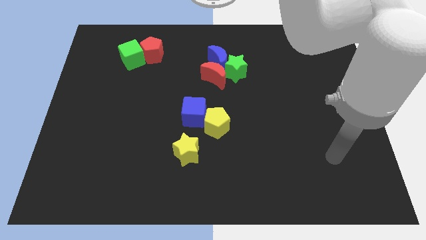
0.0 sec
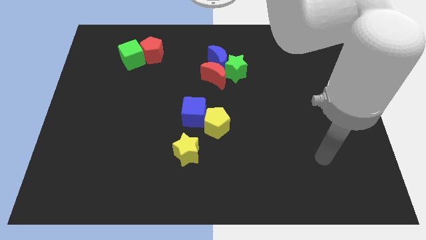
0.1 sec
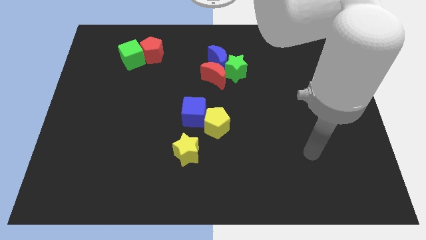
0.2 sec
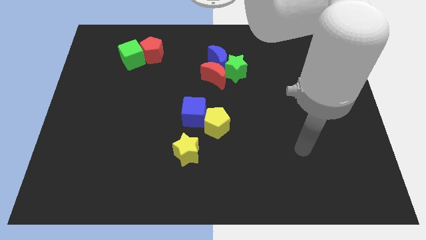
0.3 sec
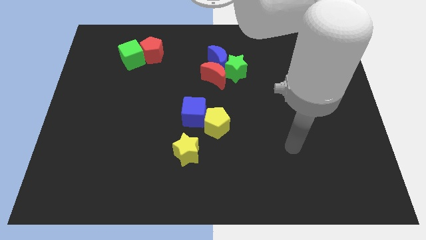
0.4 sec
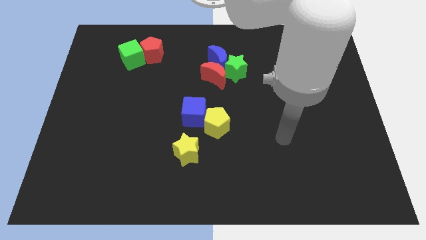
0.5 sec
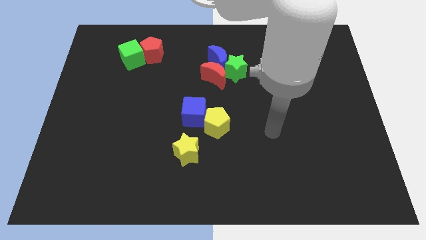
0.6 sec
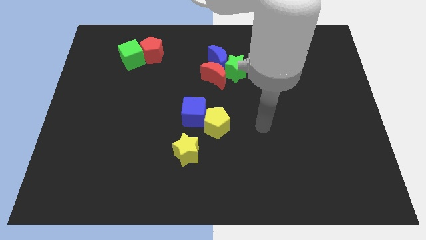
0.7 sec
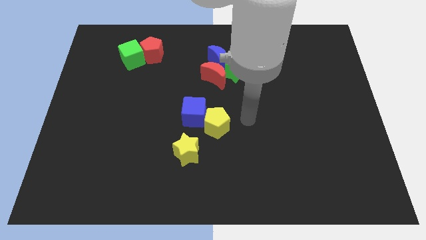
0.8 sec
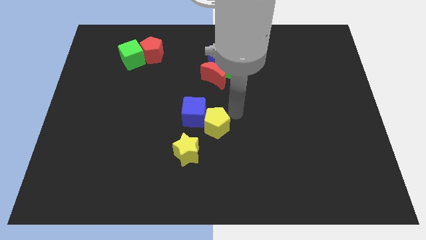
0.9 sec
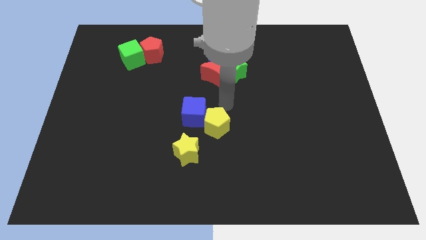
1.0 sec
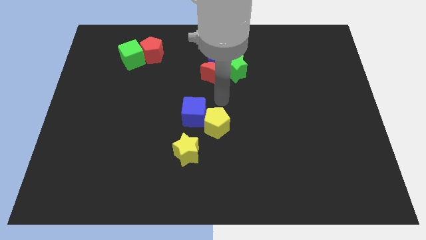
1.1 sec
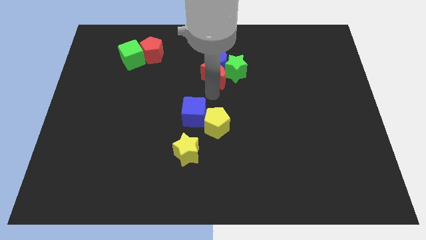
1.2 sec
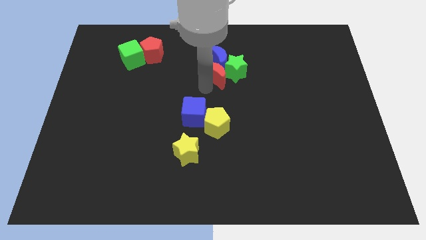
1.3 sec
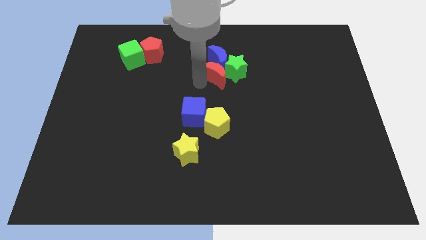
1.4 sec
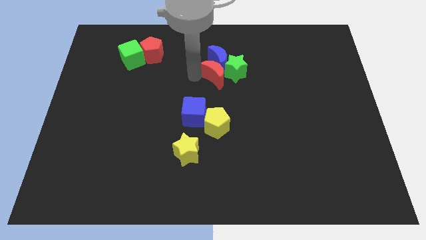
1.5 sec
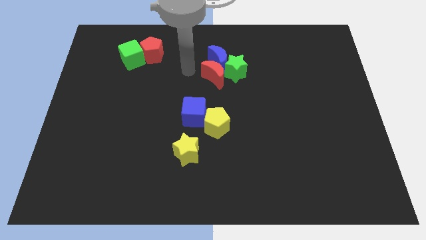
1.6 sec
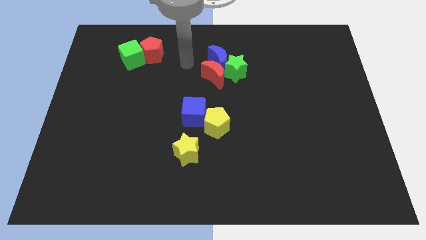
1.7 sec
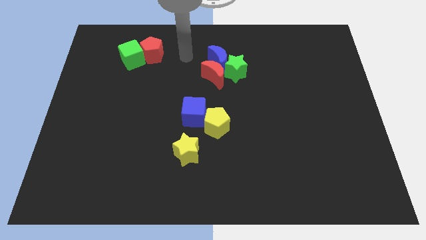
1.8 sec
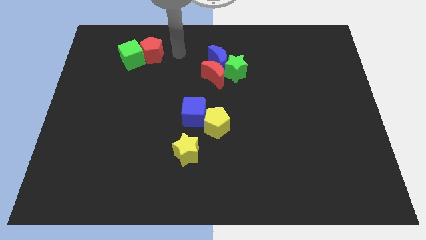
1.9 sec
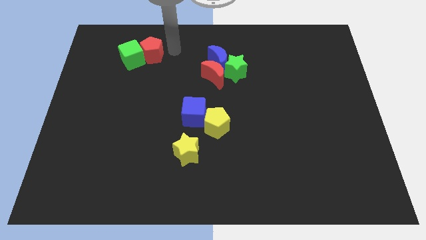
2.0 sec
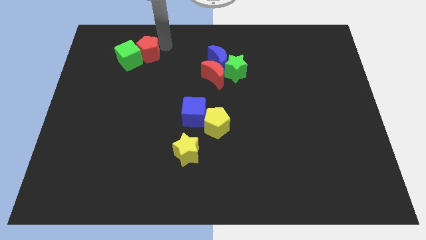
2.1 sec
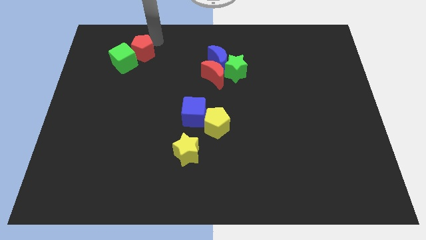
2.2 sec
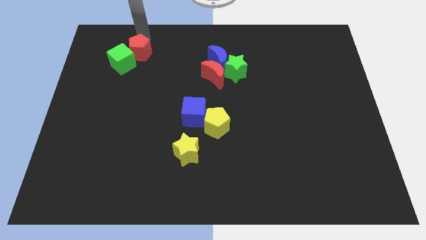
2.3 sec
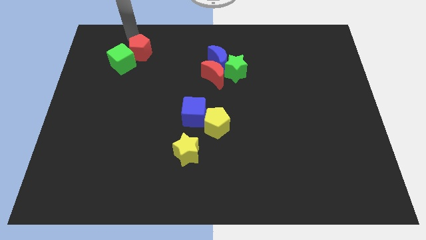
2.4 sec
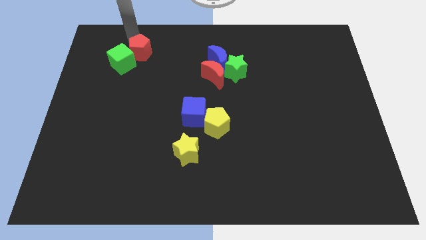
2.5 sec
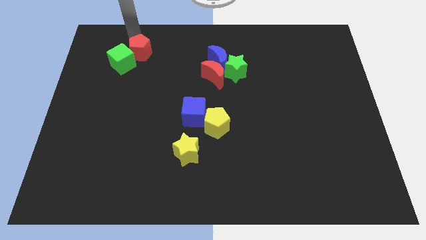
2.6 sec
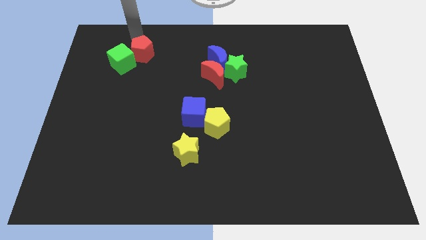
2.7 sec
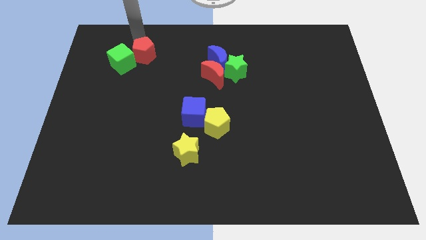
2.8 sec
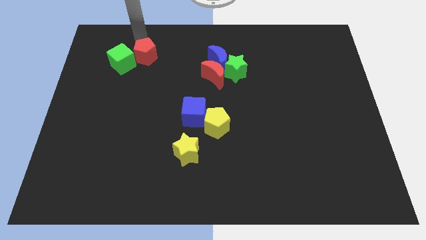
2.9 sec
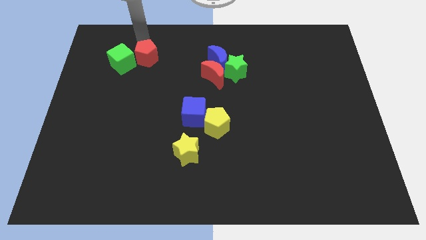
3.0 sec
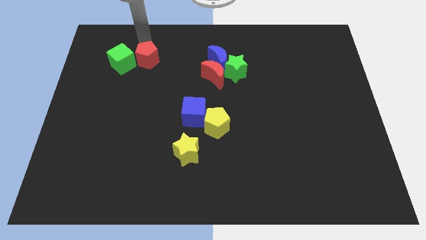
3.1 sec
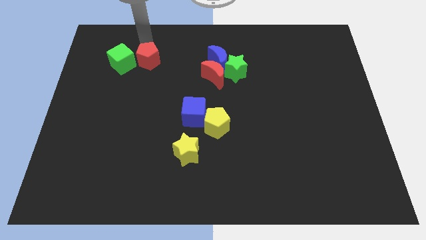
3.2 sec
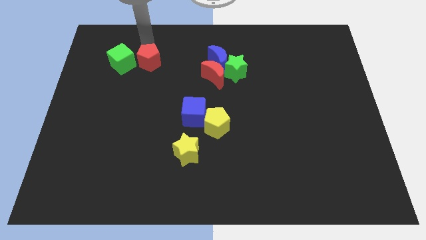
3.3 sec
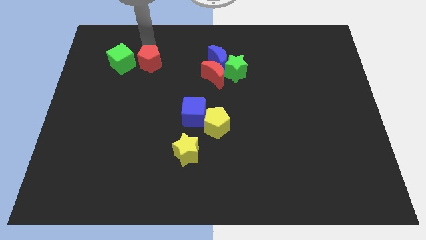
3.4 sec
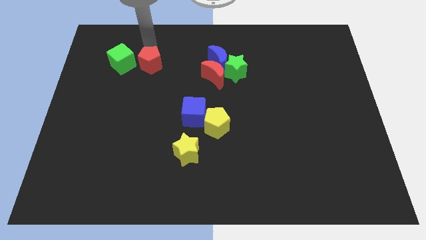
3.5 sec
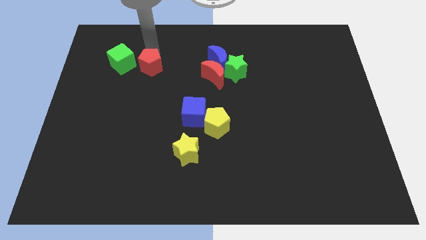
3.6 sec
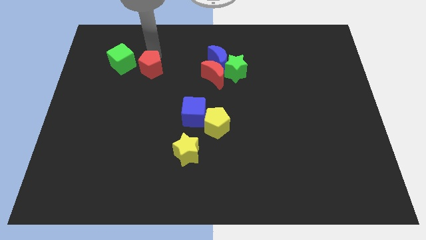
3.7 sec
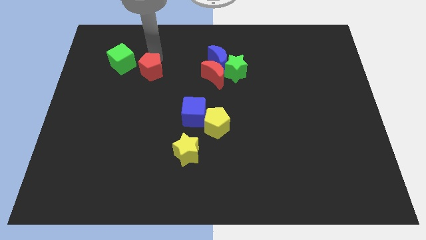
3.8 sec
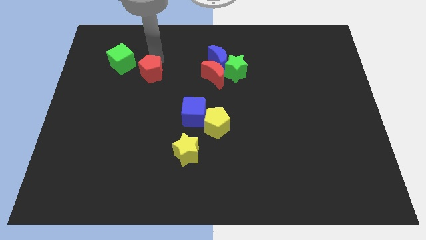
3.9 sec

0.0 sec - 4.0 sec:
slide the red pentagon slightly down

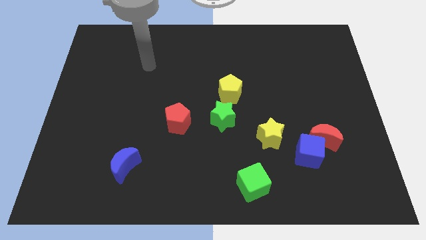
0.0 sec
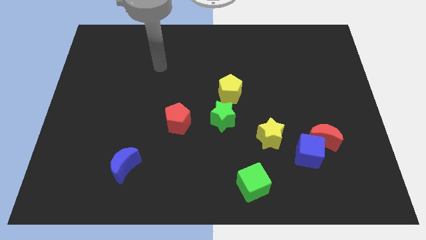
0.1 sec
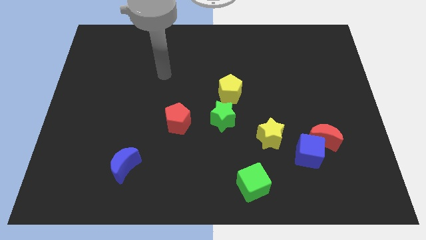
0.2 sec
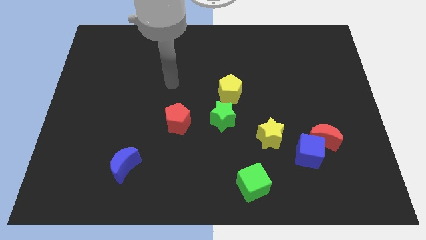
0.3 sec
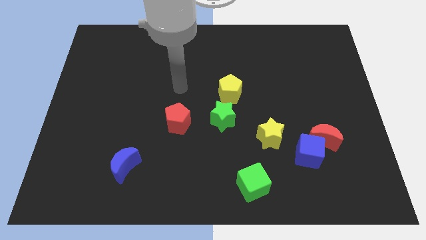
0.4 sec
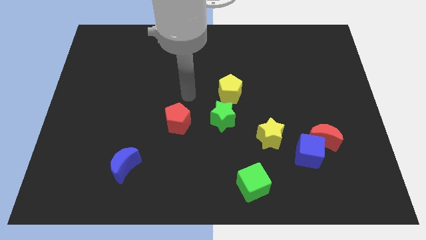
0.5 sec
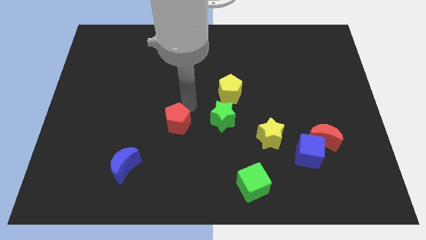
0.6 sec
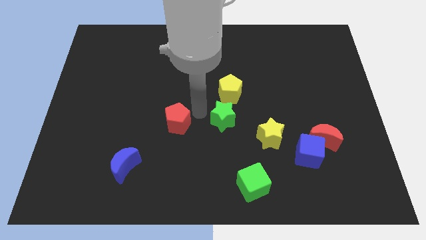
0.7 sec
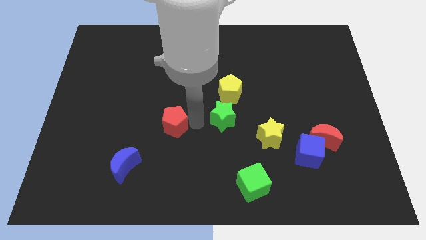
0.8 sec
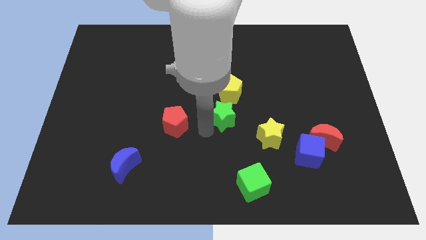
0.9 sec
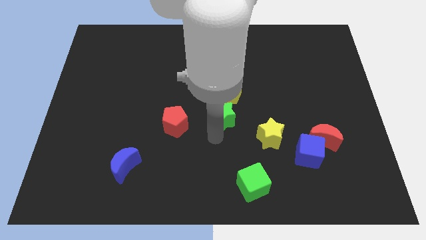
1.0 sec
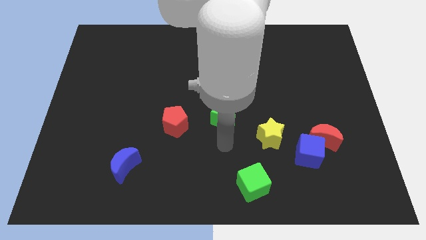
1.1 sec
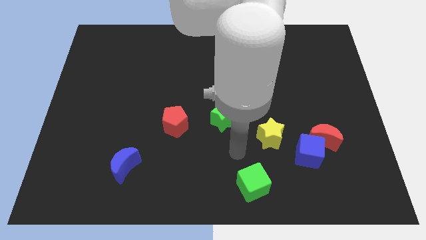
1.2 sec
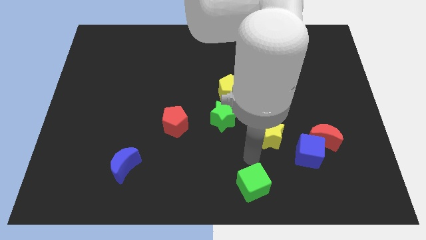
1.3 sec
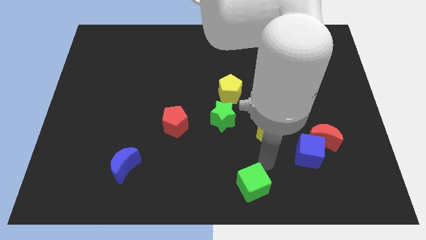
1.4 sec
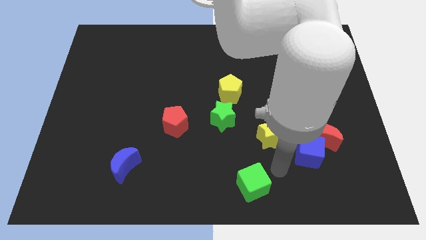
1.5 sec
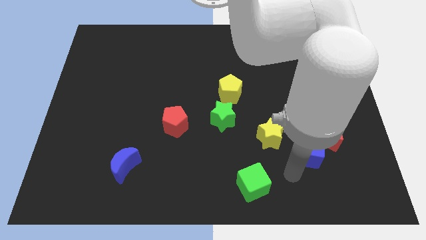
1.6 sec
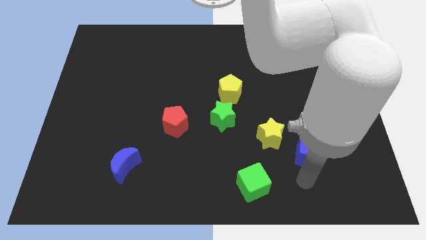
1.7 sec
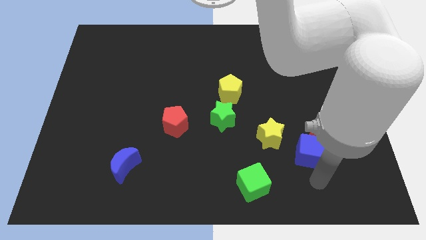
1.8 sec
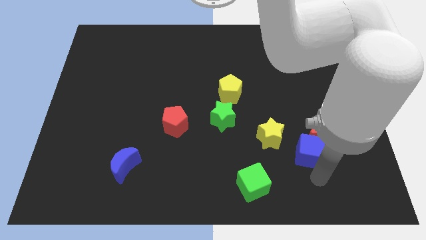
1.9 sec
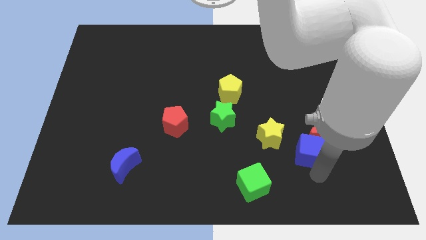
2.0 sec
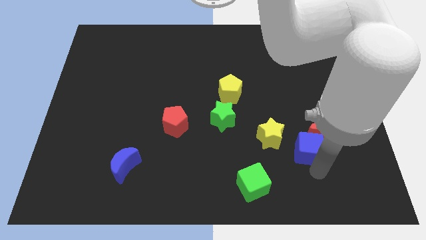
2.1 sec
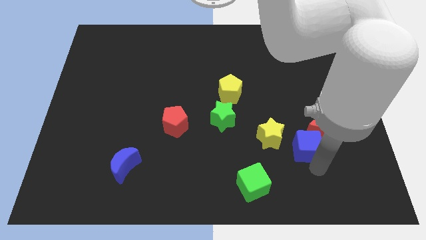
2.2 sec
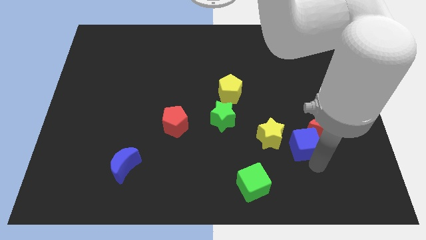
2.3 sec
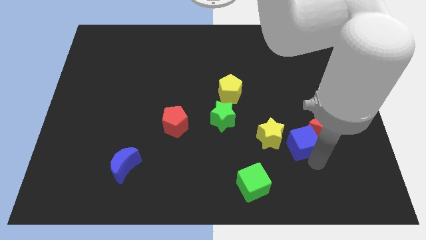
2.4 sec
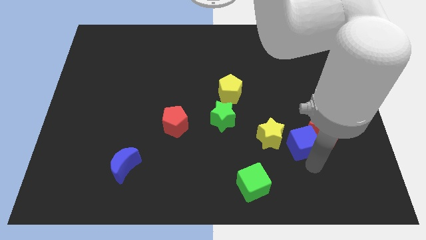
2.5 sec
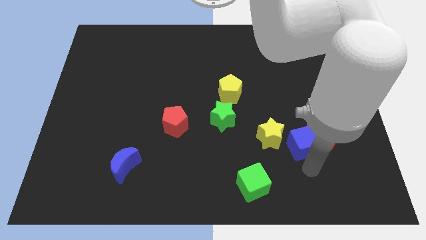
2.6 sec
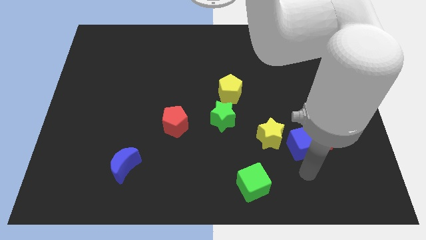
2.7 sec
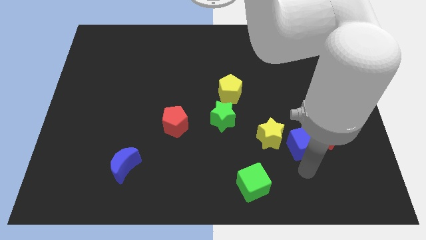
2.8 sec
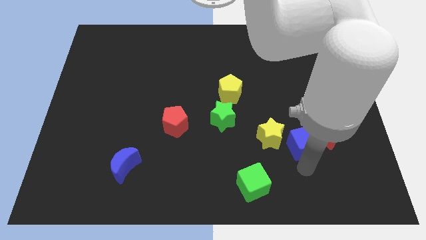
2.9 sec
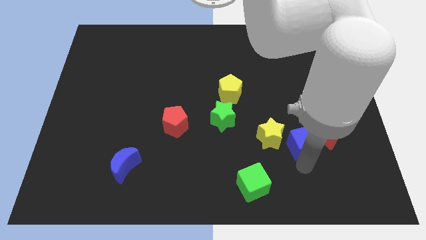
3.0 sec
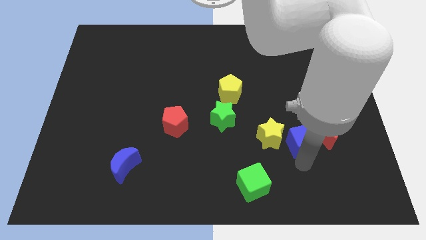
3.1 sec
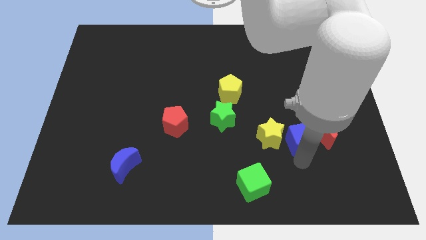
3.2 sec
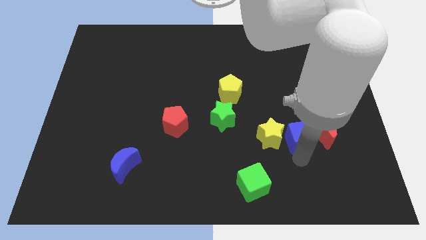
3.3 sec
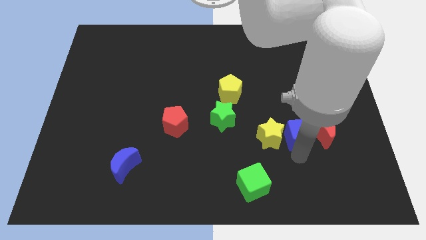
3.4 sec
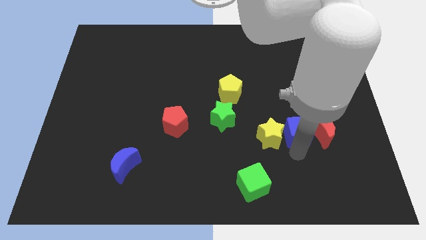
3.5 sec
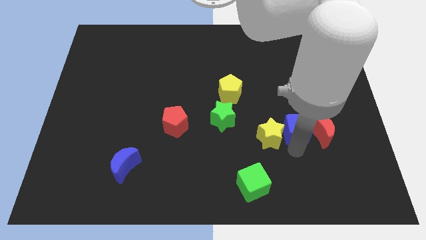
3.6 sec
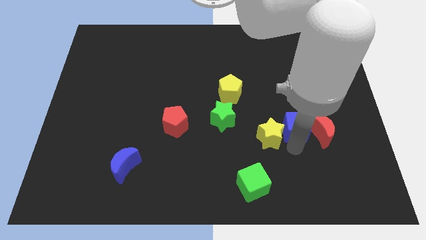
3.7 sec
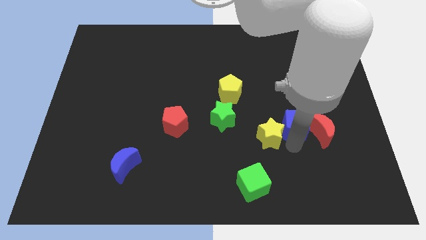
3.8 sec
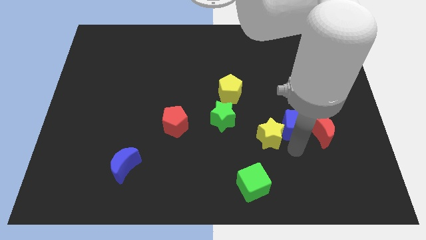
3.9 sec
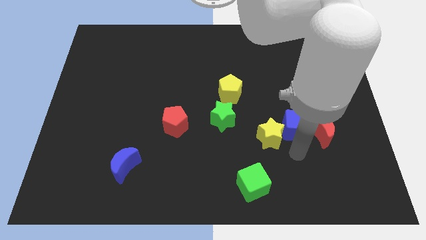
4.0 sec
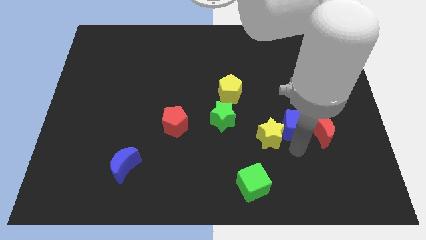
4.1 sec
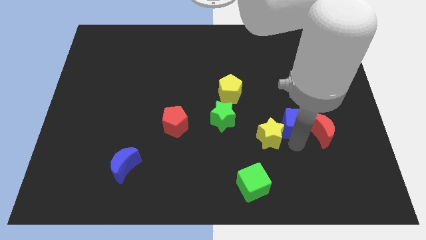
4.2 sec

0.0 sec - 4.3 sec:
move the blue cube a little bit up
